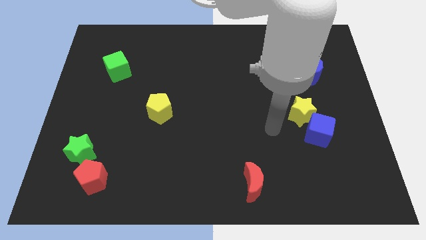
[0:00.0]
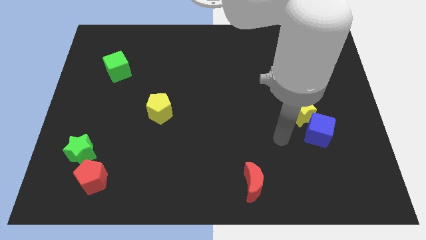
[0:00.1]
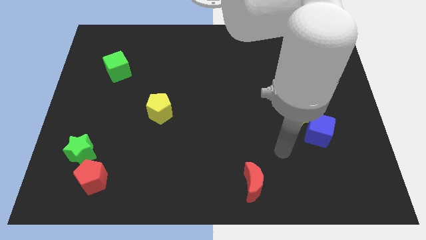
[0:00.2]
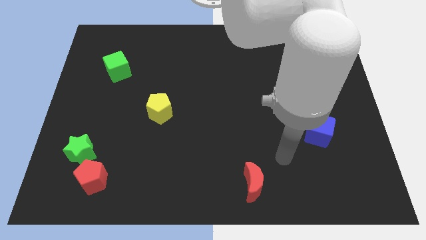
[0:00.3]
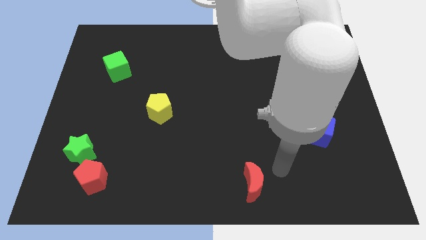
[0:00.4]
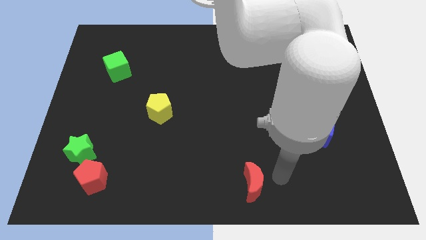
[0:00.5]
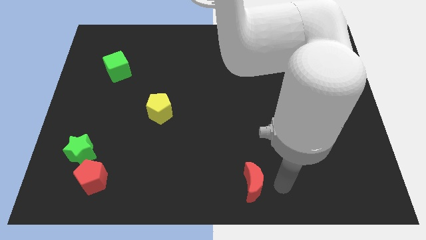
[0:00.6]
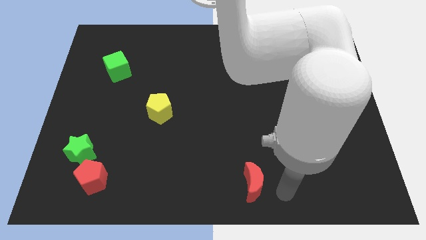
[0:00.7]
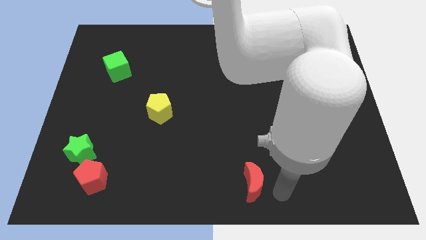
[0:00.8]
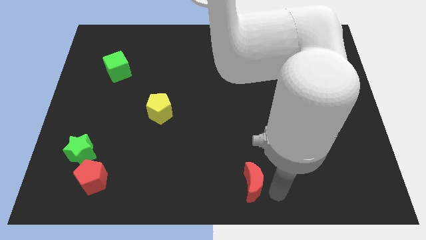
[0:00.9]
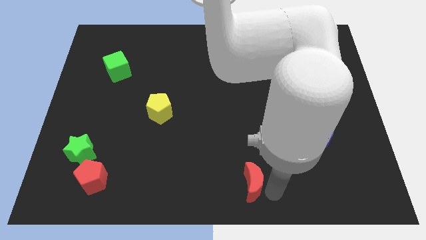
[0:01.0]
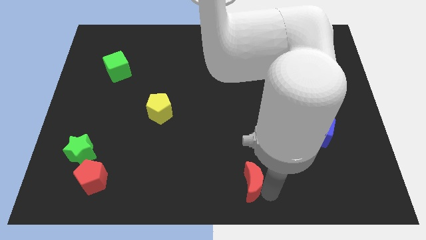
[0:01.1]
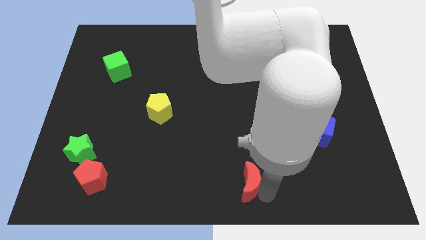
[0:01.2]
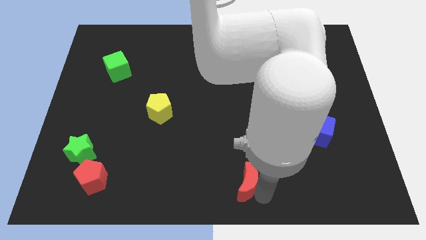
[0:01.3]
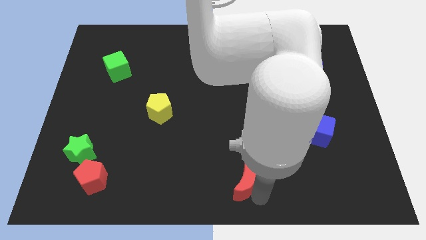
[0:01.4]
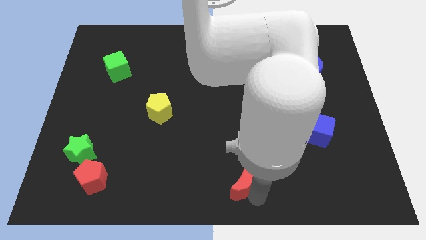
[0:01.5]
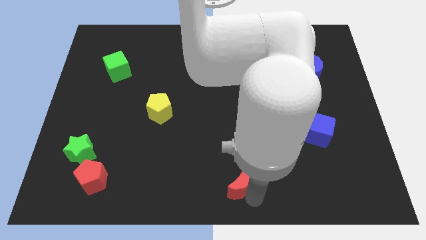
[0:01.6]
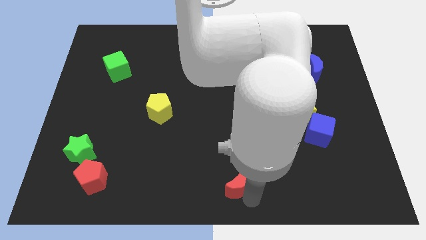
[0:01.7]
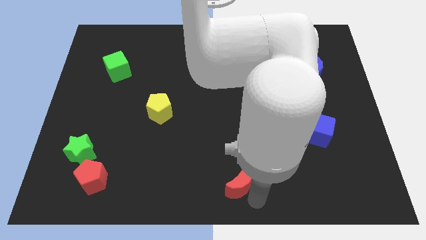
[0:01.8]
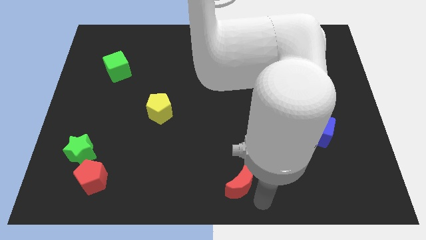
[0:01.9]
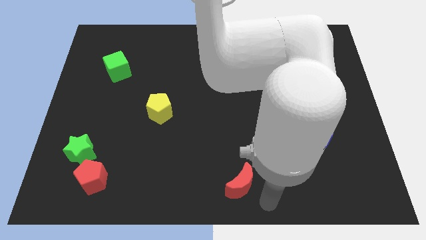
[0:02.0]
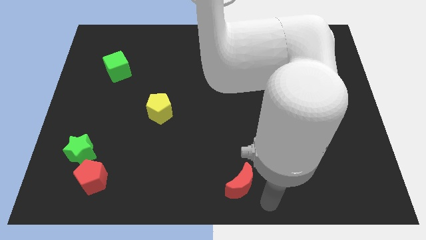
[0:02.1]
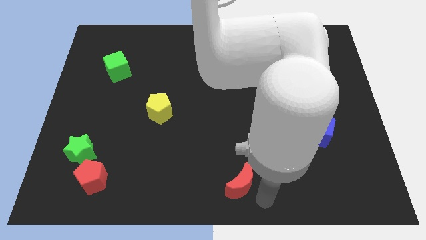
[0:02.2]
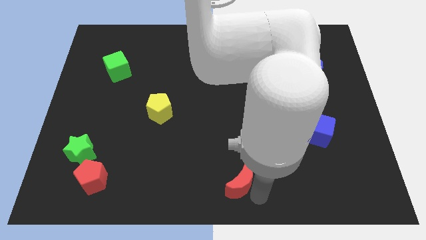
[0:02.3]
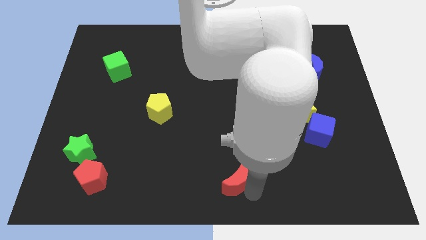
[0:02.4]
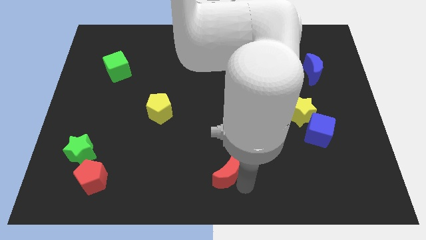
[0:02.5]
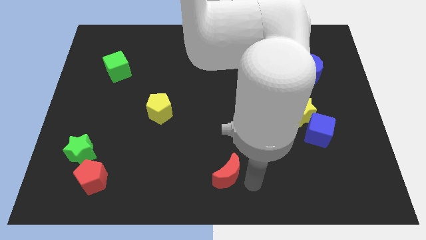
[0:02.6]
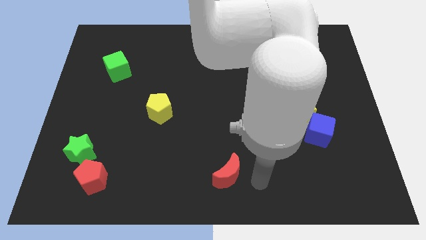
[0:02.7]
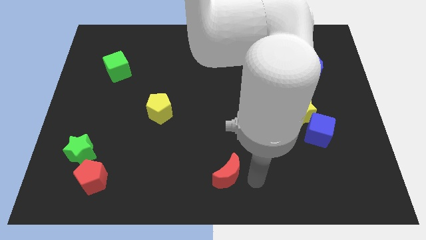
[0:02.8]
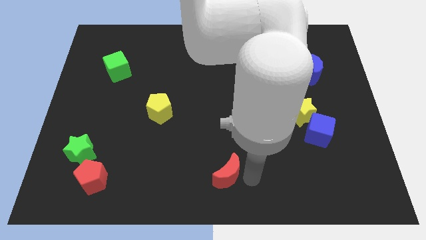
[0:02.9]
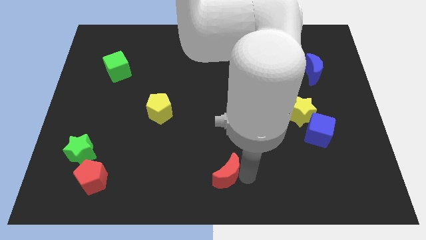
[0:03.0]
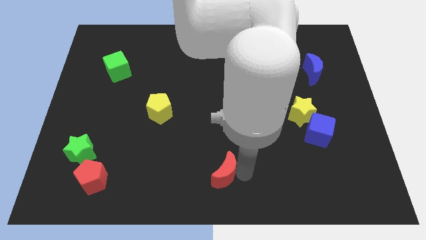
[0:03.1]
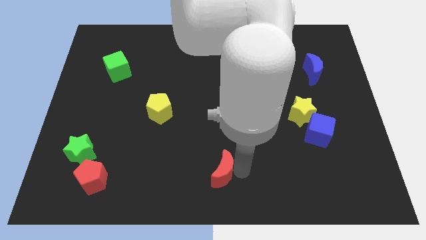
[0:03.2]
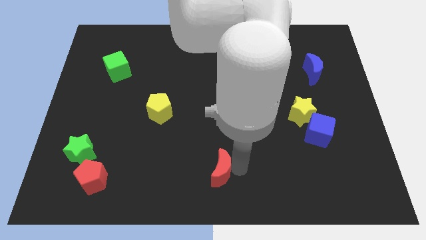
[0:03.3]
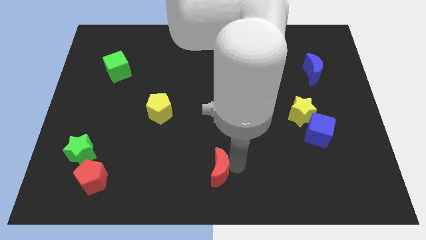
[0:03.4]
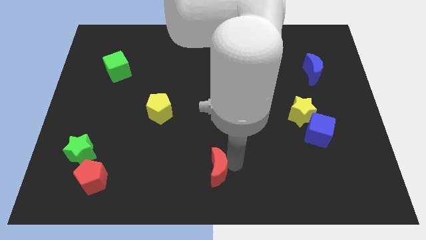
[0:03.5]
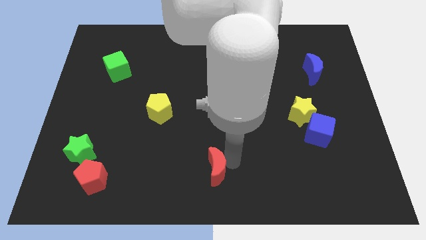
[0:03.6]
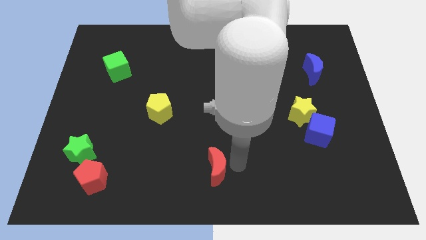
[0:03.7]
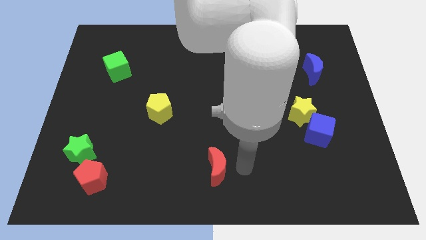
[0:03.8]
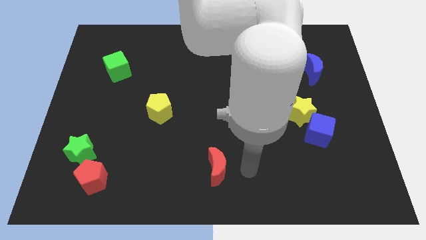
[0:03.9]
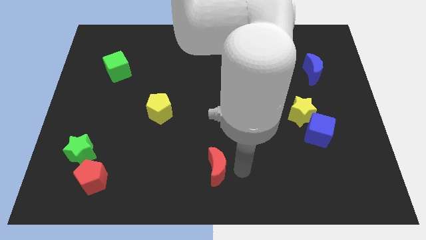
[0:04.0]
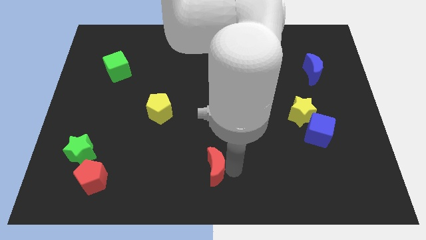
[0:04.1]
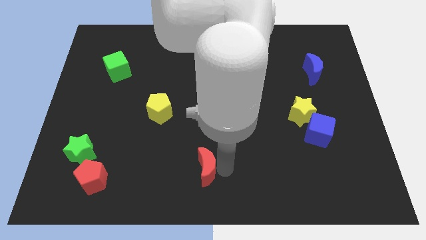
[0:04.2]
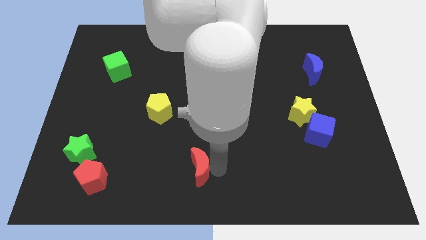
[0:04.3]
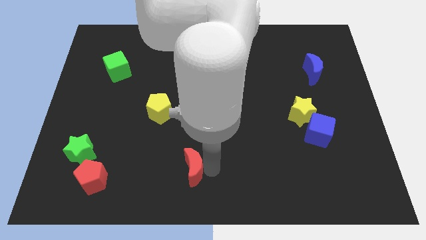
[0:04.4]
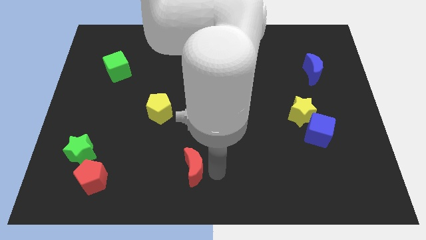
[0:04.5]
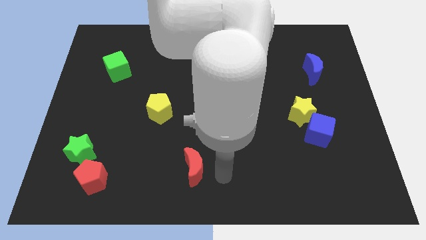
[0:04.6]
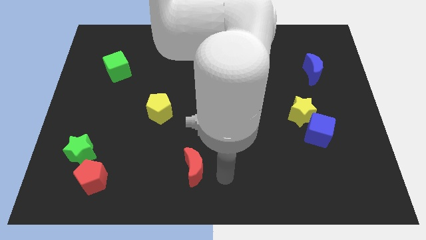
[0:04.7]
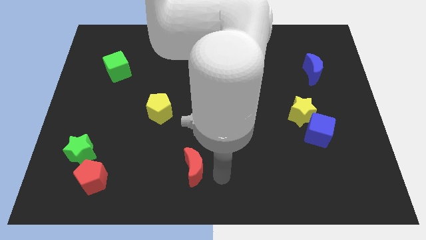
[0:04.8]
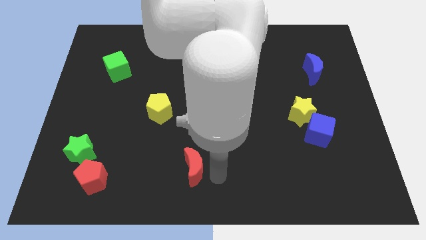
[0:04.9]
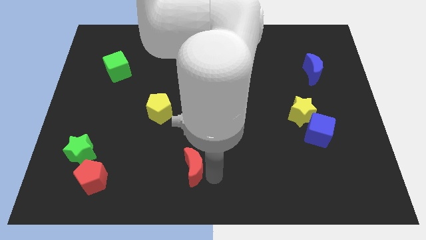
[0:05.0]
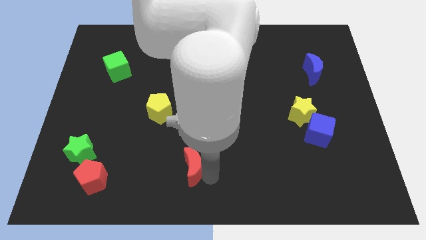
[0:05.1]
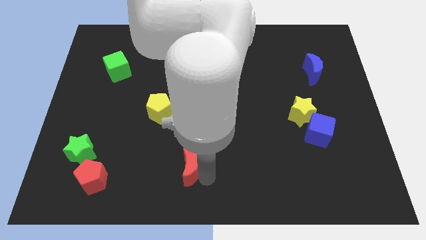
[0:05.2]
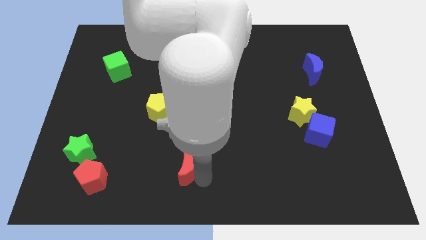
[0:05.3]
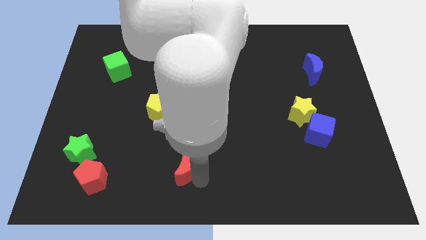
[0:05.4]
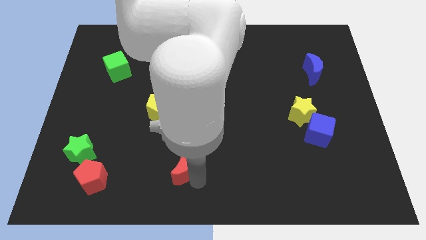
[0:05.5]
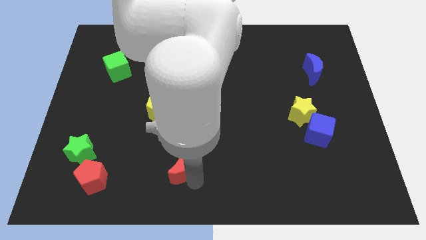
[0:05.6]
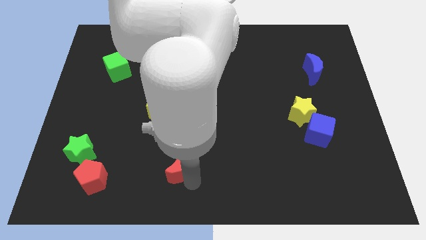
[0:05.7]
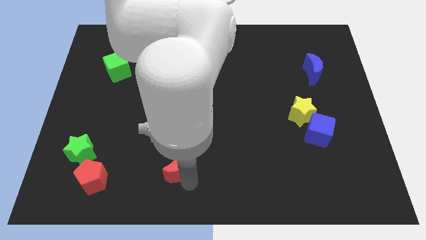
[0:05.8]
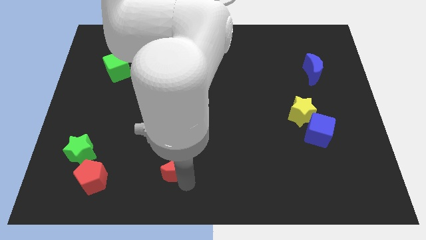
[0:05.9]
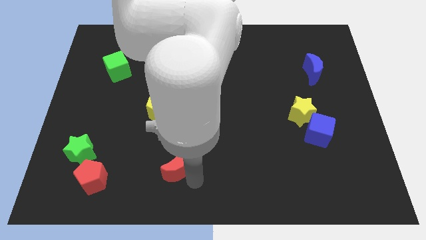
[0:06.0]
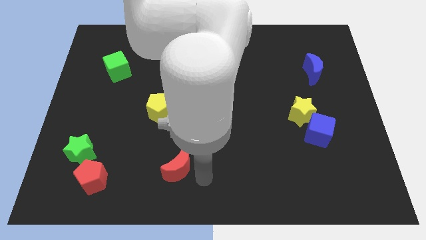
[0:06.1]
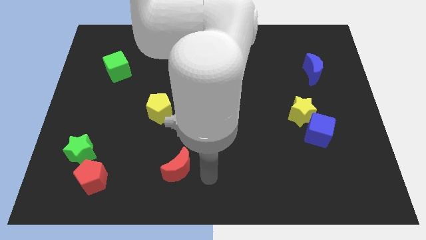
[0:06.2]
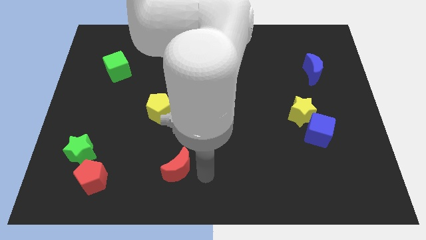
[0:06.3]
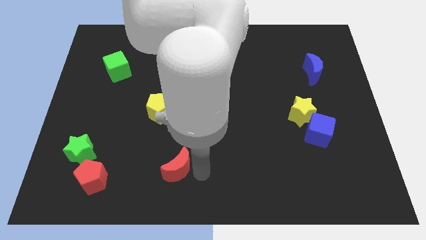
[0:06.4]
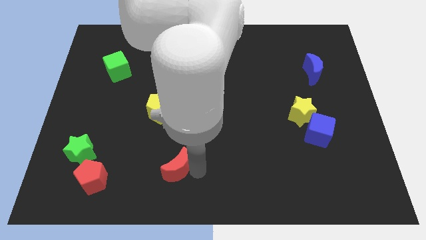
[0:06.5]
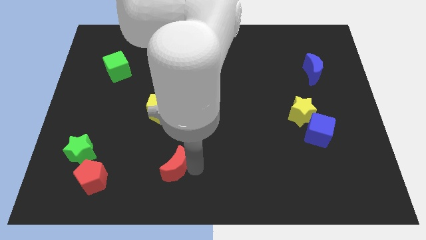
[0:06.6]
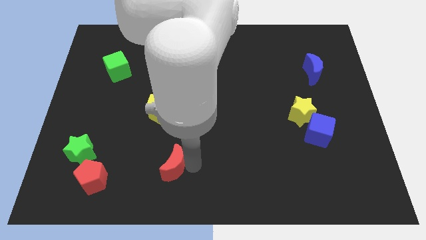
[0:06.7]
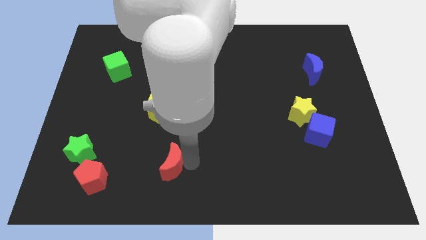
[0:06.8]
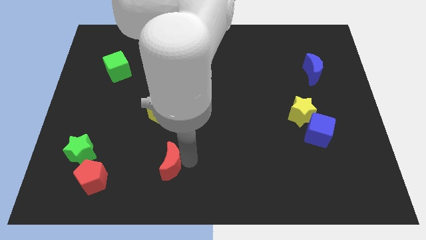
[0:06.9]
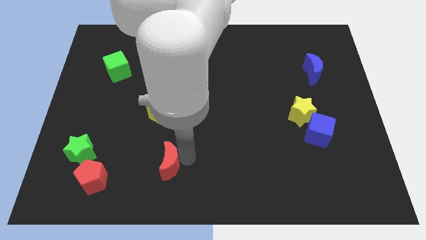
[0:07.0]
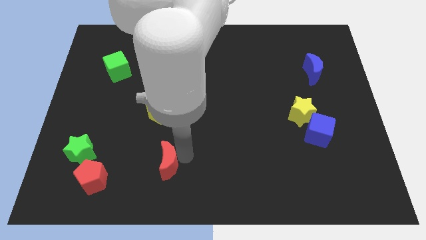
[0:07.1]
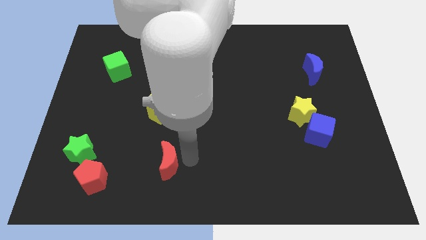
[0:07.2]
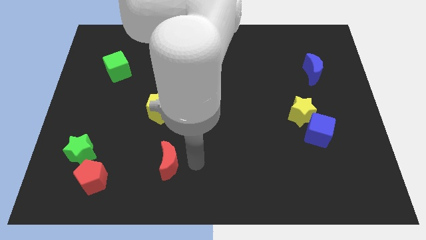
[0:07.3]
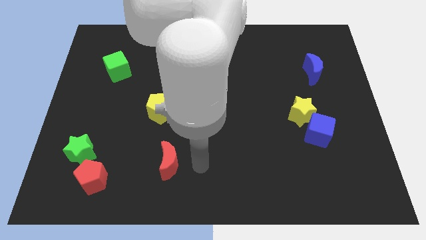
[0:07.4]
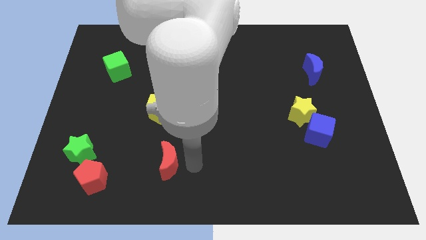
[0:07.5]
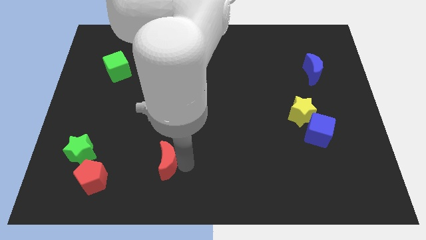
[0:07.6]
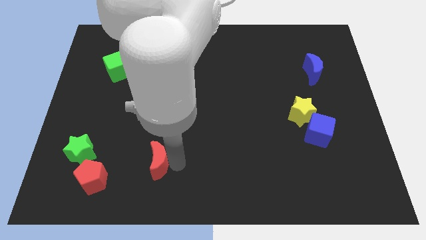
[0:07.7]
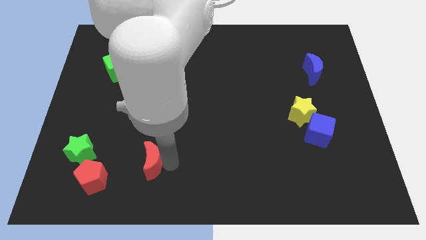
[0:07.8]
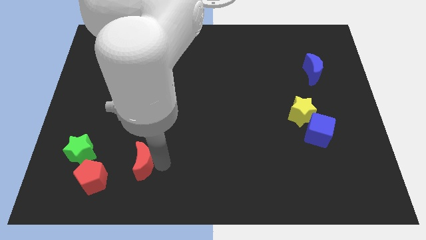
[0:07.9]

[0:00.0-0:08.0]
push the red moon to the top right side of the red pentagon
